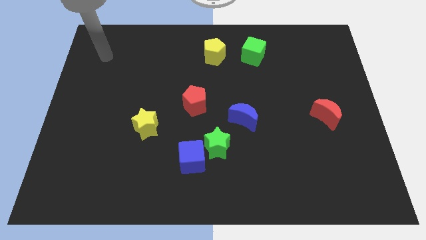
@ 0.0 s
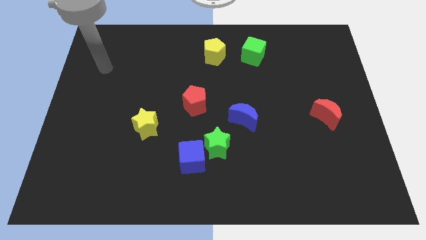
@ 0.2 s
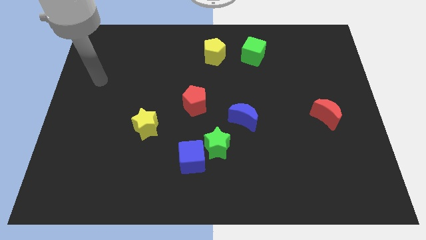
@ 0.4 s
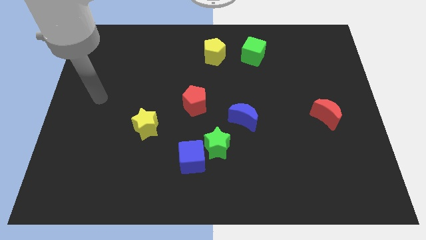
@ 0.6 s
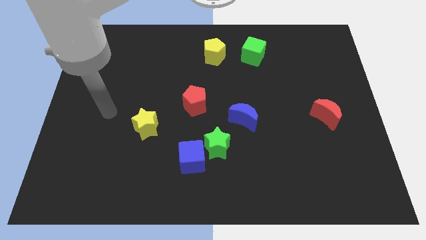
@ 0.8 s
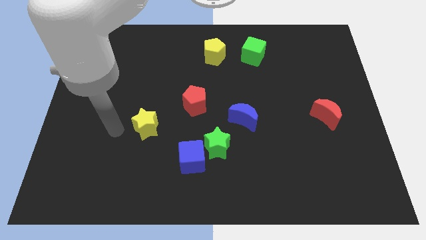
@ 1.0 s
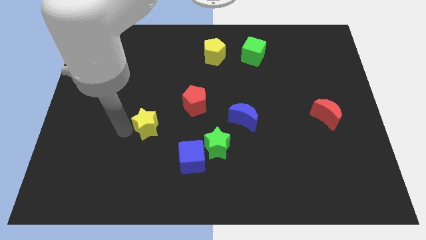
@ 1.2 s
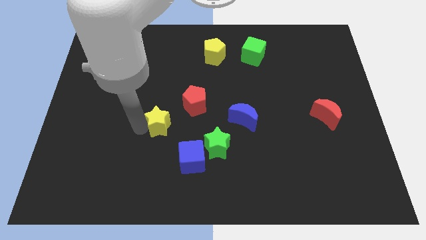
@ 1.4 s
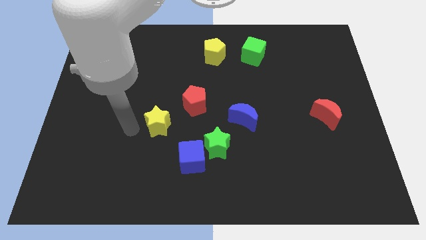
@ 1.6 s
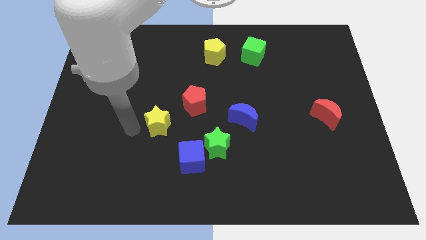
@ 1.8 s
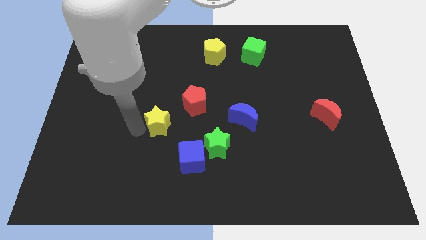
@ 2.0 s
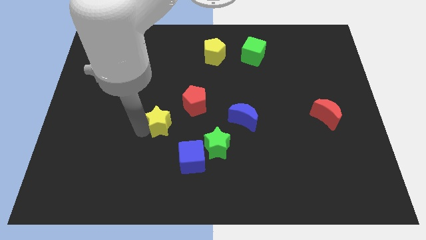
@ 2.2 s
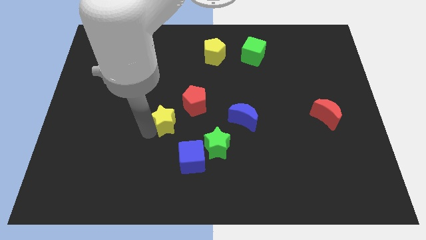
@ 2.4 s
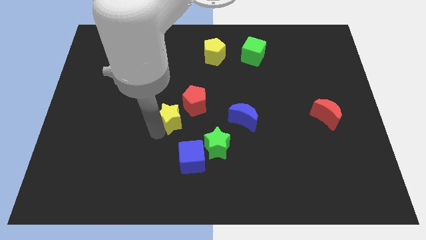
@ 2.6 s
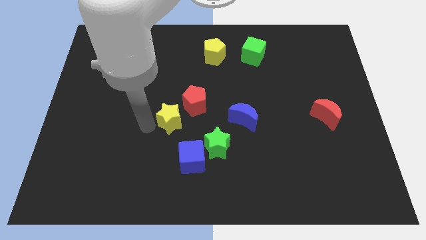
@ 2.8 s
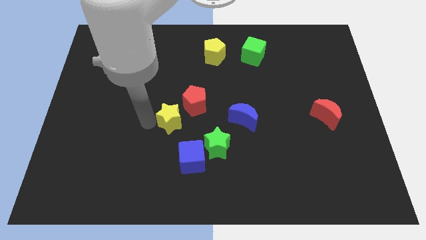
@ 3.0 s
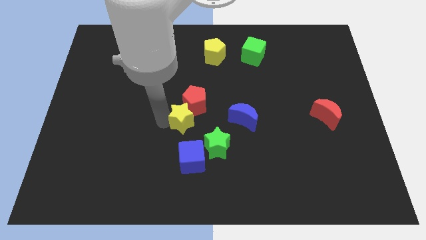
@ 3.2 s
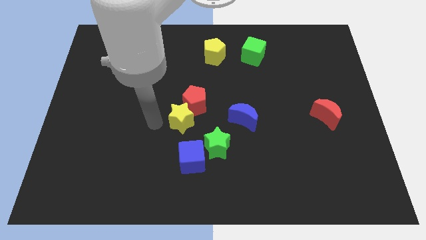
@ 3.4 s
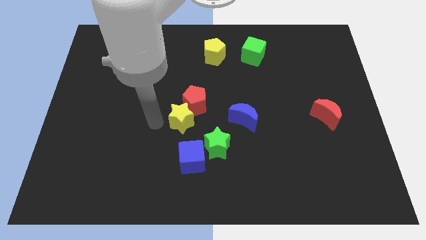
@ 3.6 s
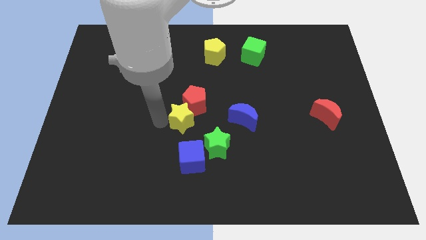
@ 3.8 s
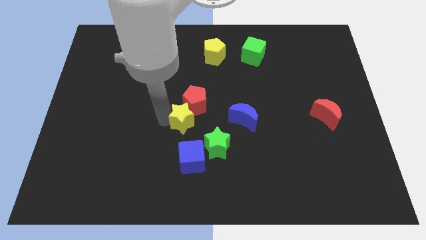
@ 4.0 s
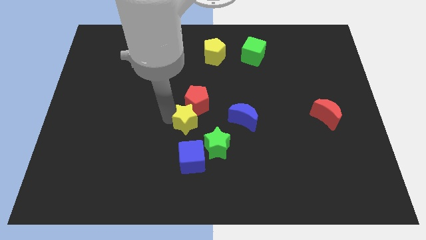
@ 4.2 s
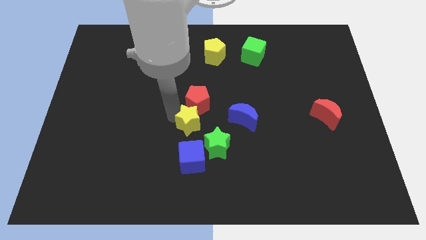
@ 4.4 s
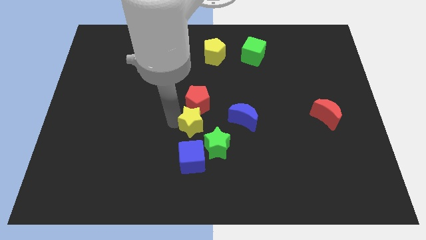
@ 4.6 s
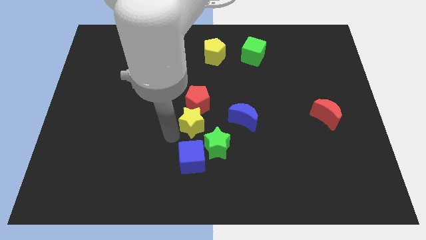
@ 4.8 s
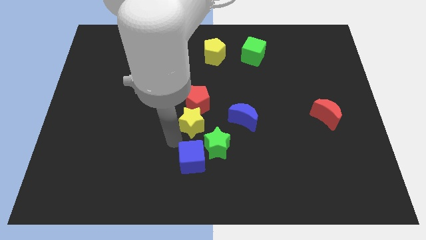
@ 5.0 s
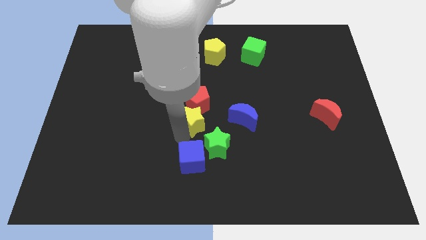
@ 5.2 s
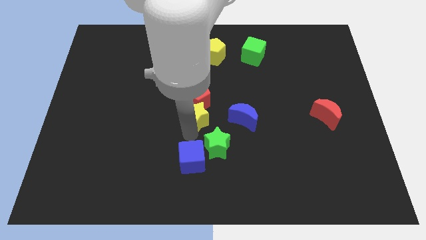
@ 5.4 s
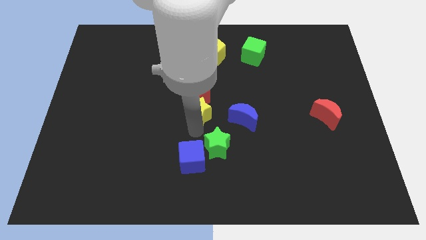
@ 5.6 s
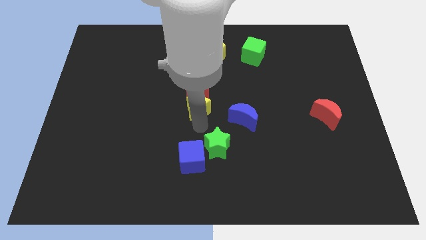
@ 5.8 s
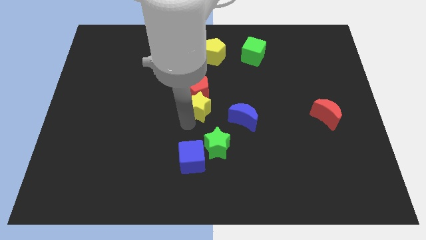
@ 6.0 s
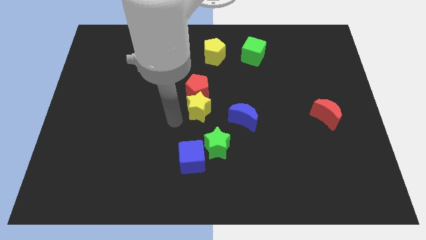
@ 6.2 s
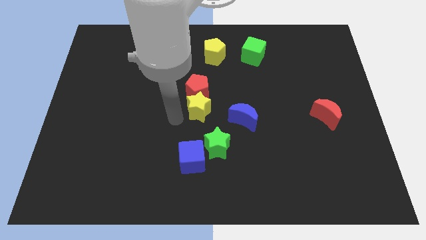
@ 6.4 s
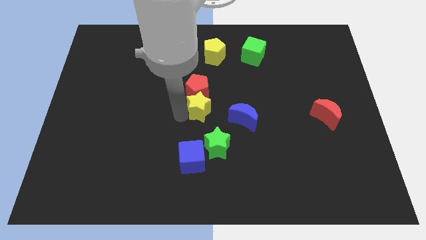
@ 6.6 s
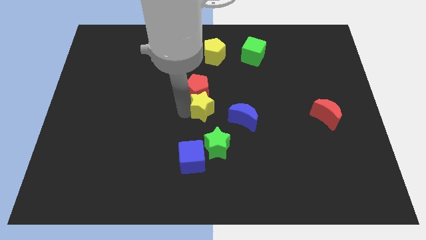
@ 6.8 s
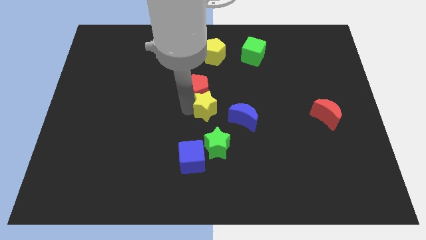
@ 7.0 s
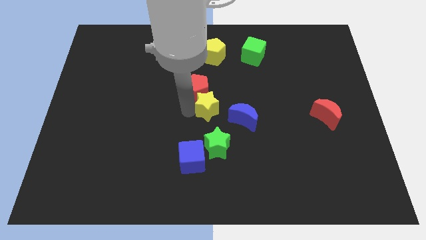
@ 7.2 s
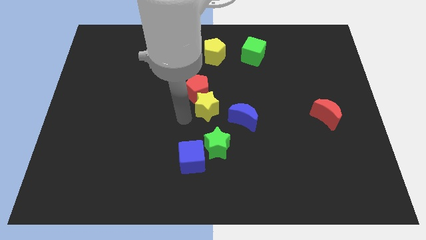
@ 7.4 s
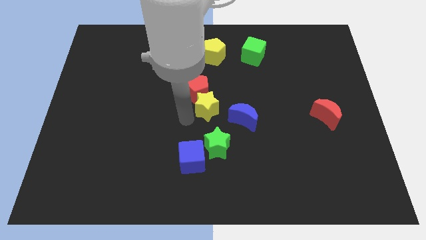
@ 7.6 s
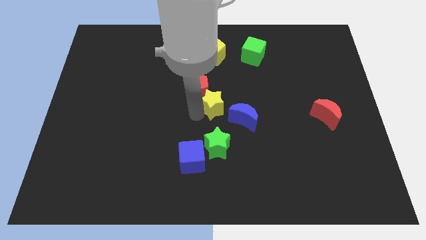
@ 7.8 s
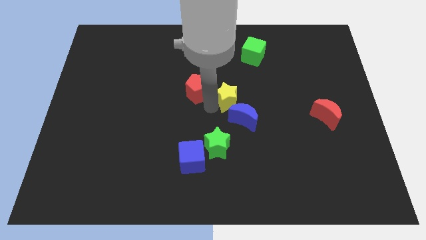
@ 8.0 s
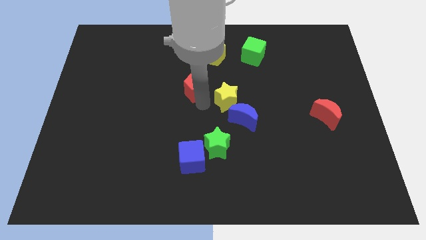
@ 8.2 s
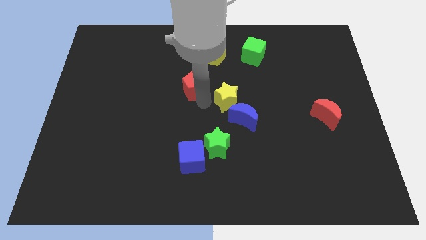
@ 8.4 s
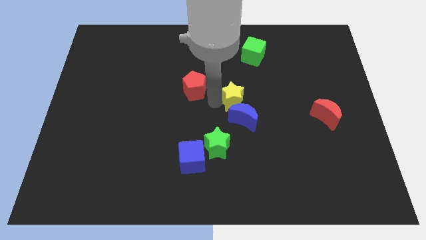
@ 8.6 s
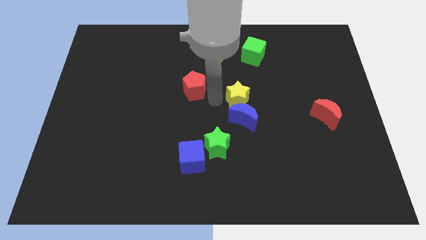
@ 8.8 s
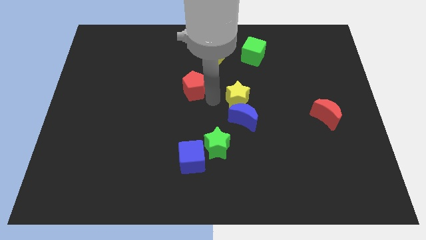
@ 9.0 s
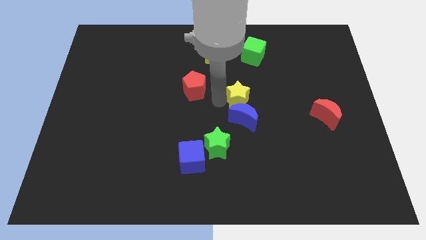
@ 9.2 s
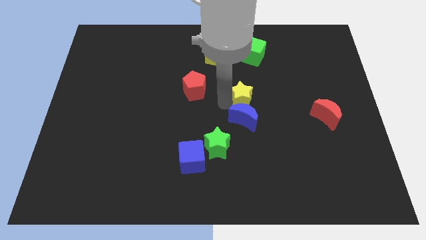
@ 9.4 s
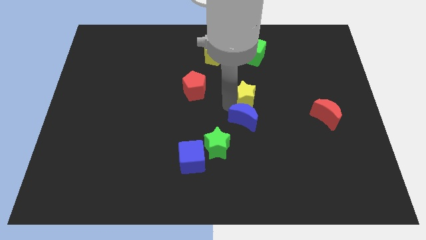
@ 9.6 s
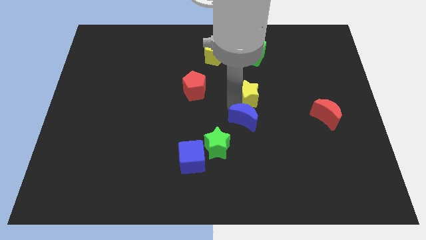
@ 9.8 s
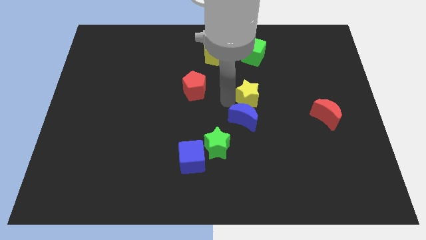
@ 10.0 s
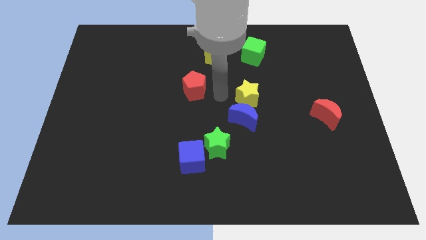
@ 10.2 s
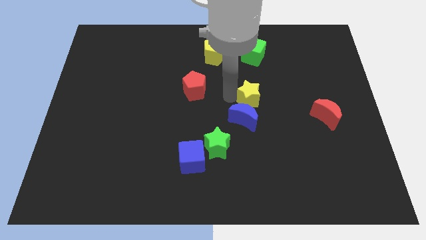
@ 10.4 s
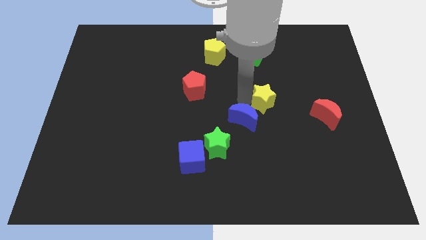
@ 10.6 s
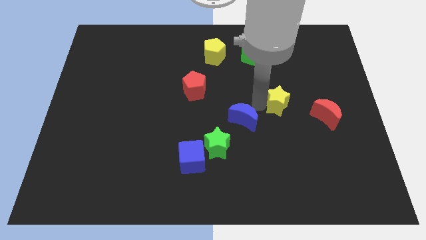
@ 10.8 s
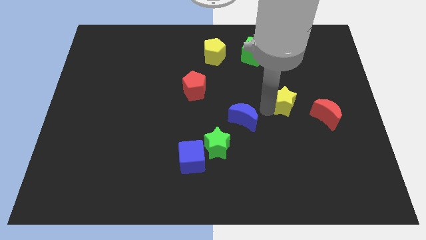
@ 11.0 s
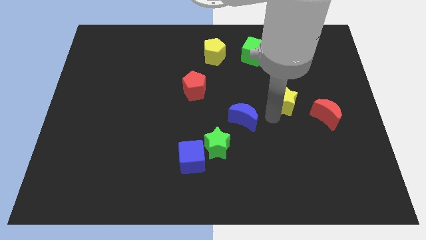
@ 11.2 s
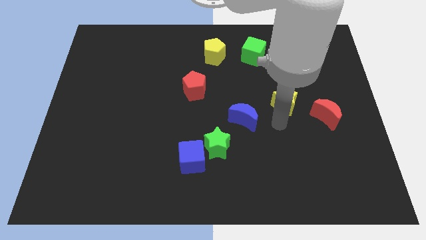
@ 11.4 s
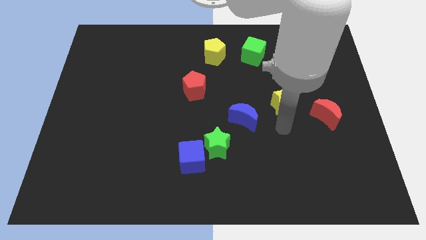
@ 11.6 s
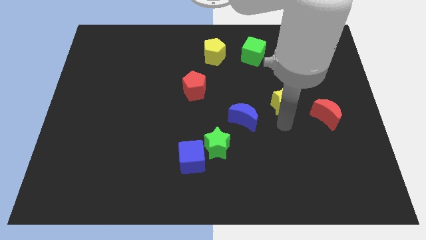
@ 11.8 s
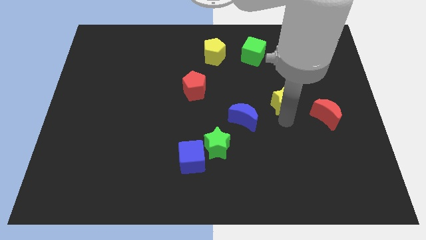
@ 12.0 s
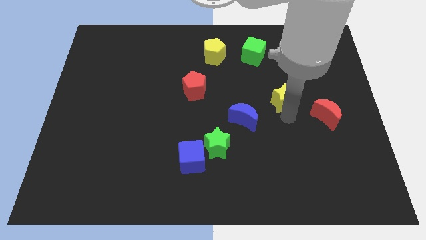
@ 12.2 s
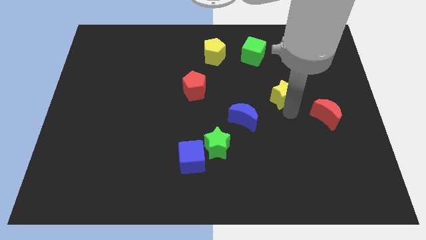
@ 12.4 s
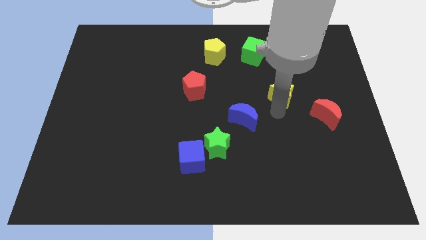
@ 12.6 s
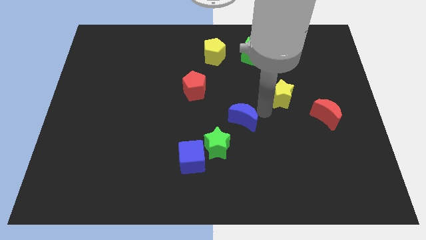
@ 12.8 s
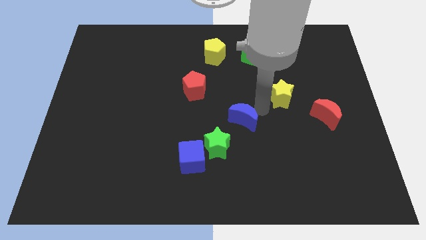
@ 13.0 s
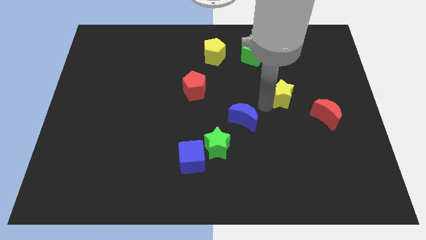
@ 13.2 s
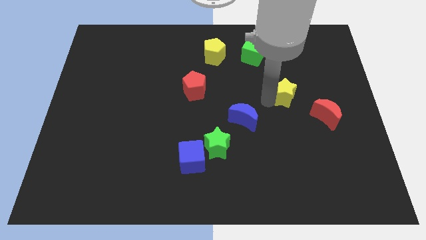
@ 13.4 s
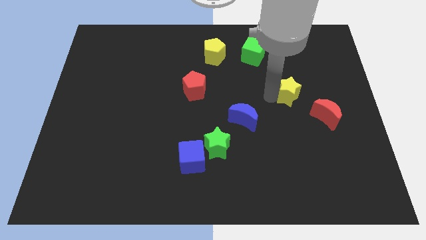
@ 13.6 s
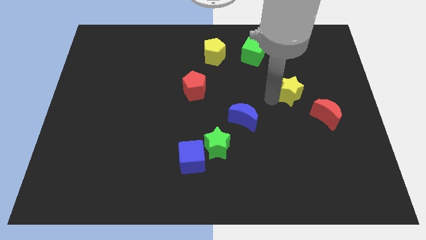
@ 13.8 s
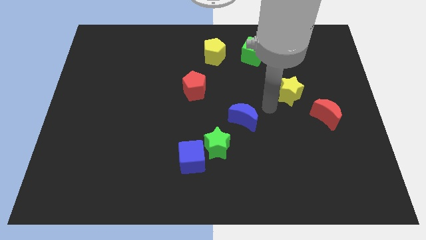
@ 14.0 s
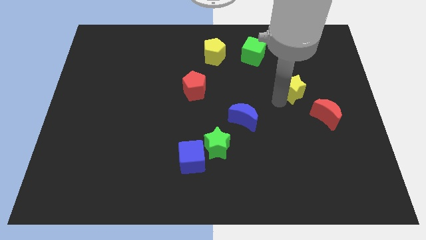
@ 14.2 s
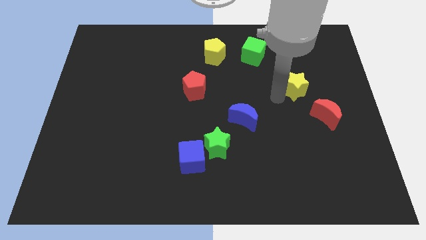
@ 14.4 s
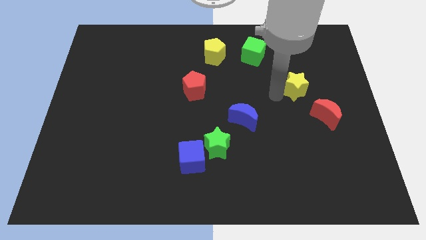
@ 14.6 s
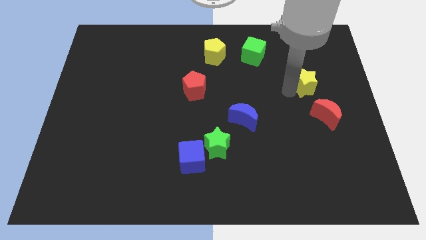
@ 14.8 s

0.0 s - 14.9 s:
move the yellow star to the top of the red moon
